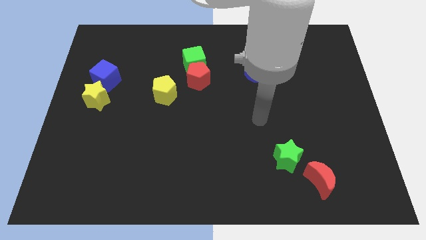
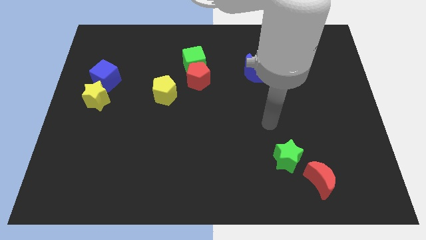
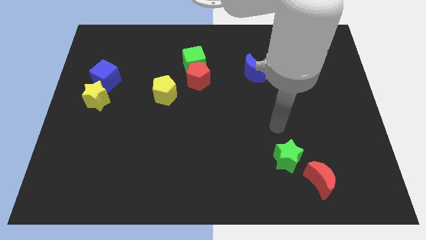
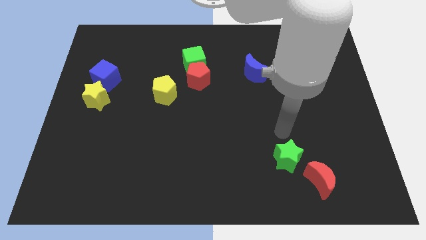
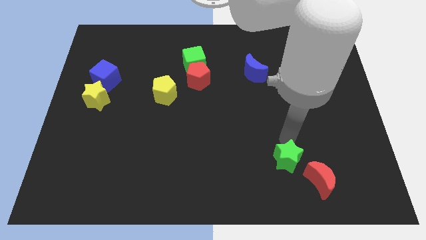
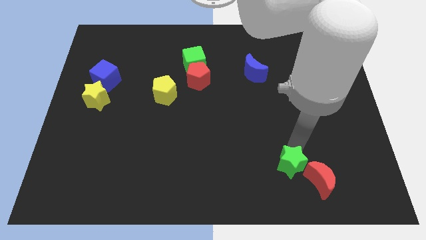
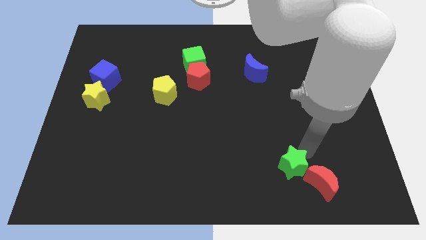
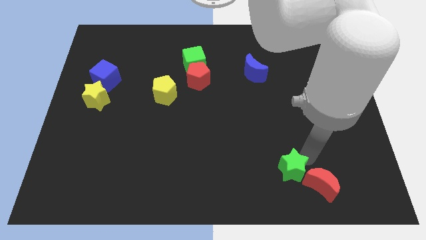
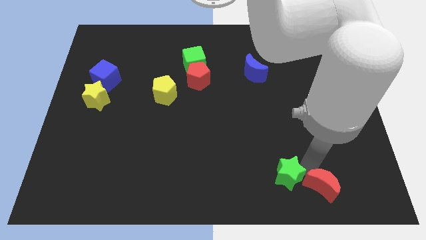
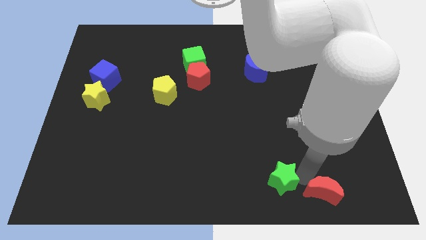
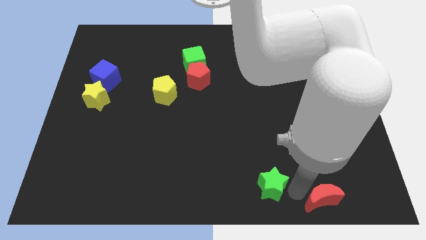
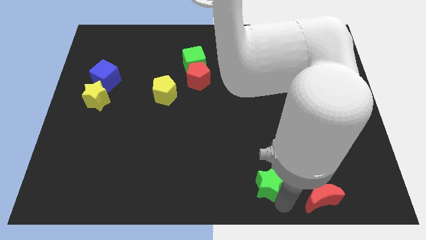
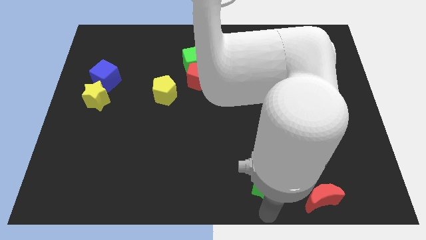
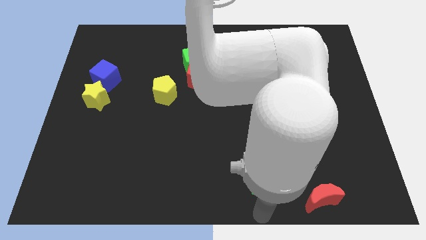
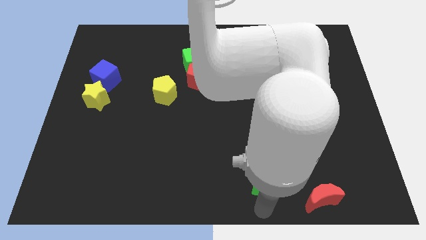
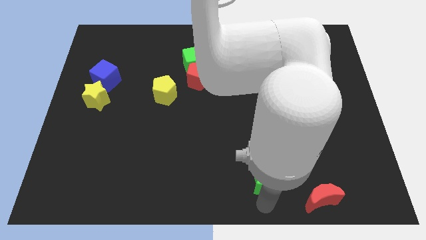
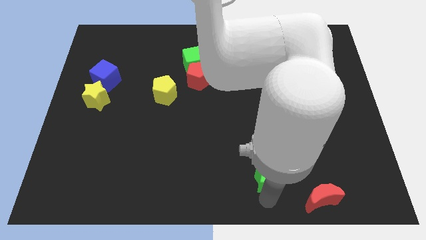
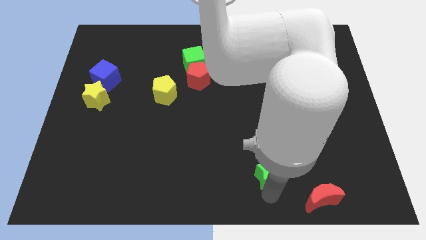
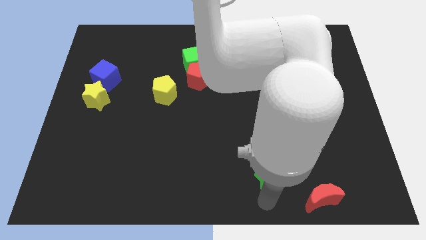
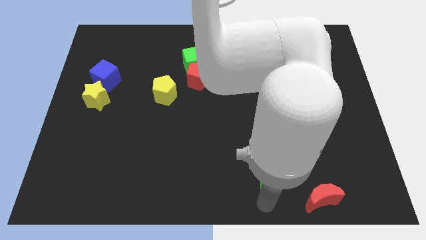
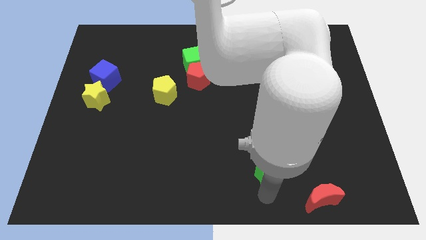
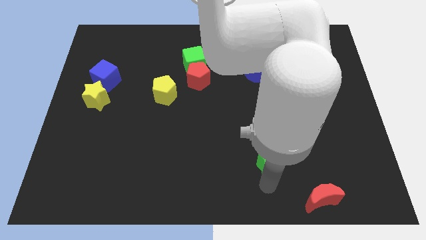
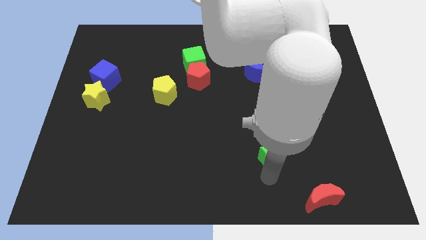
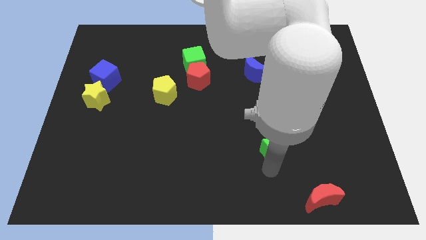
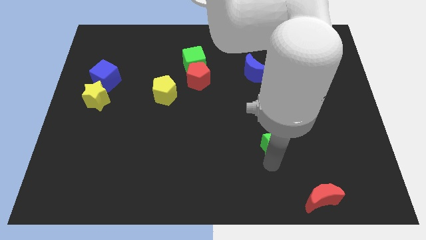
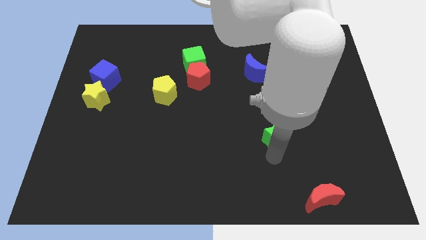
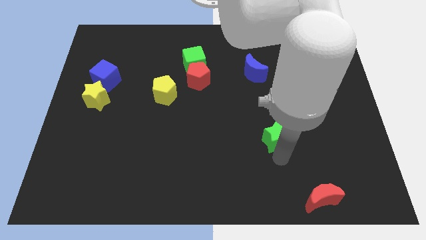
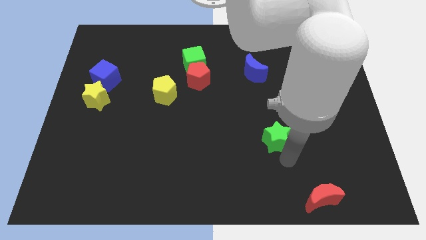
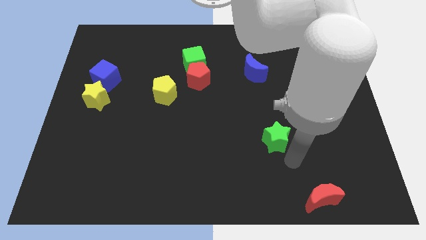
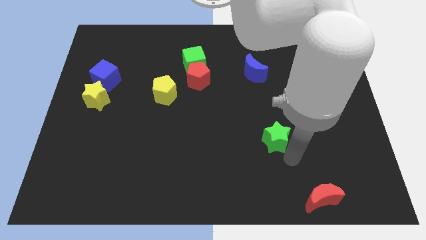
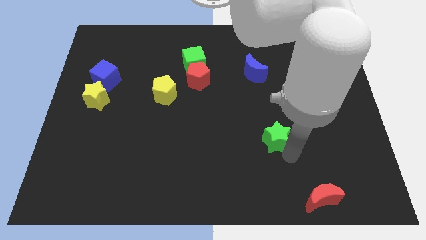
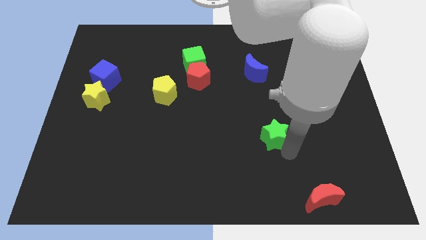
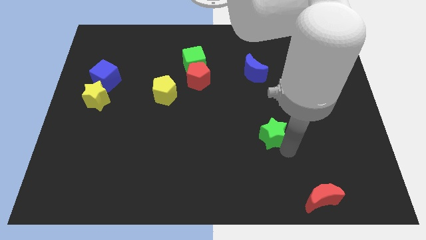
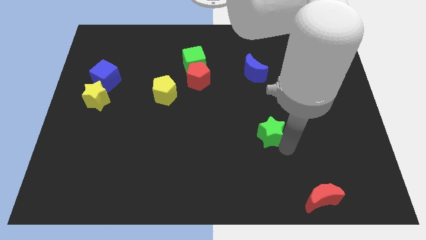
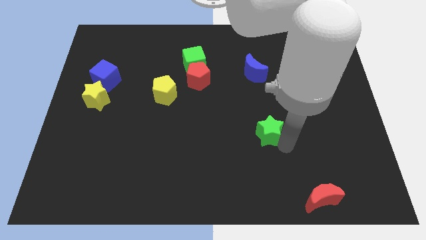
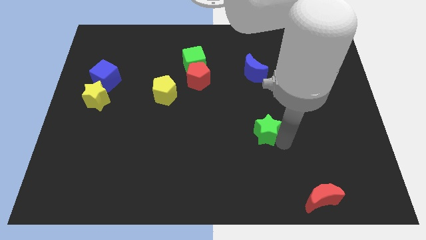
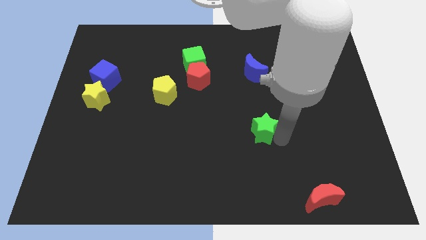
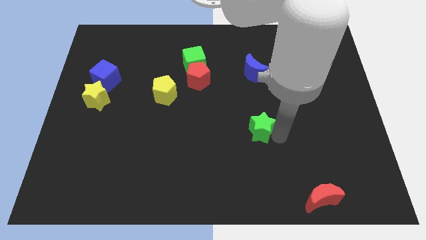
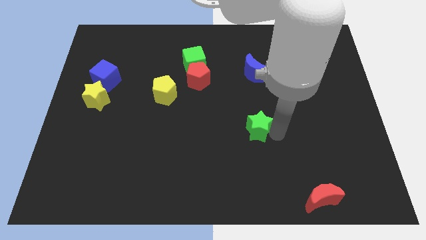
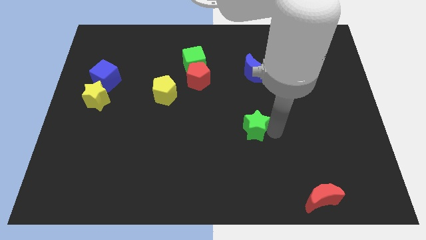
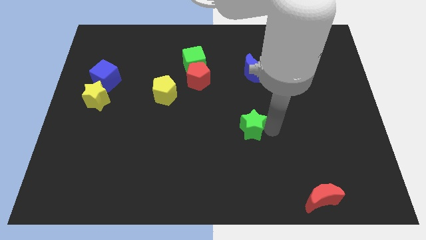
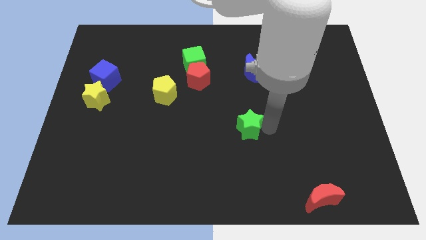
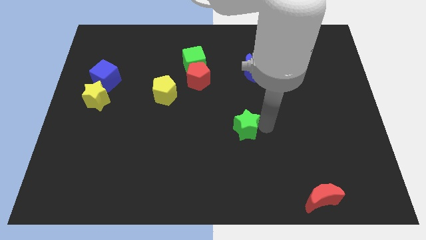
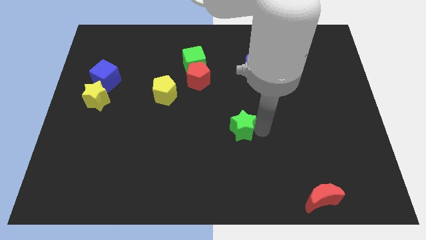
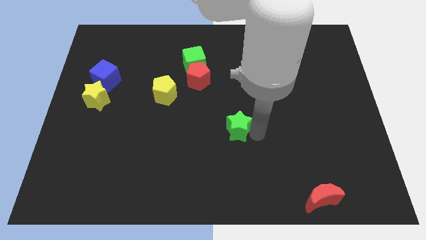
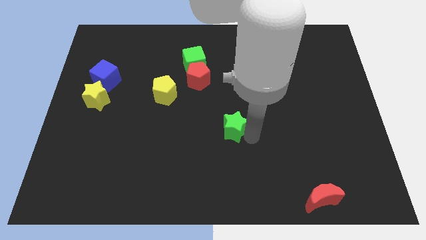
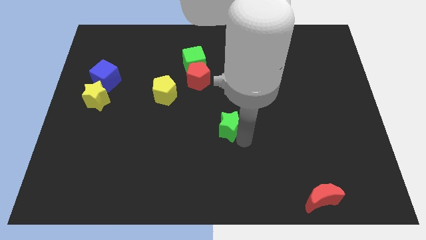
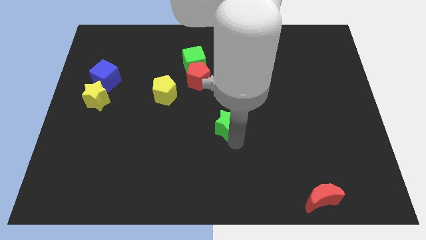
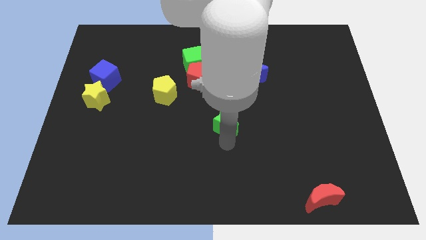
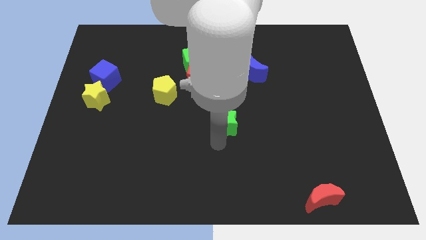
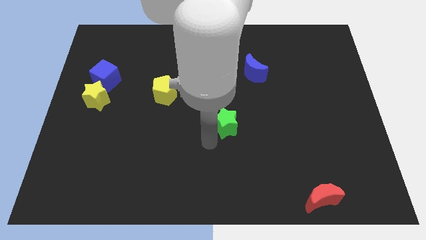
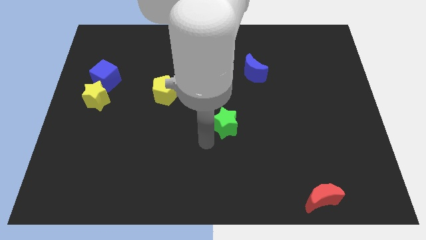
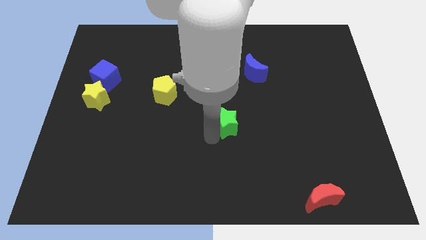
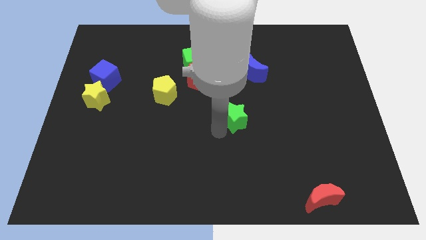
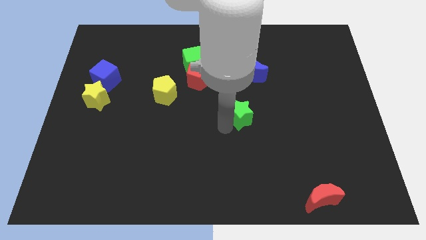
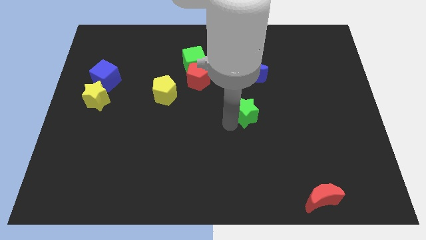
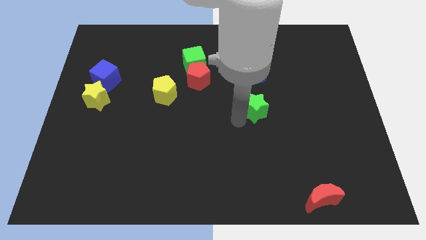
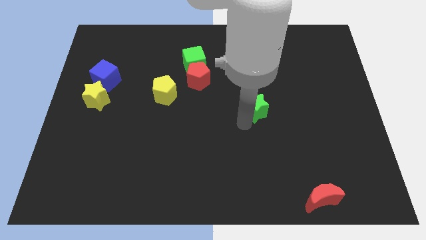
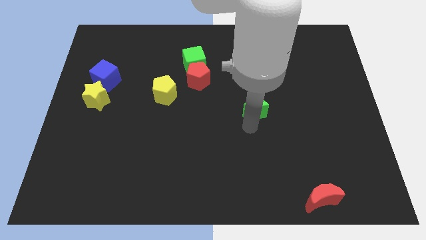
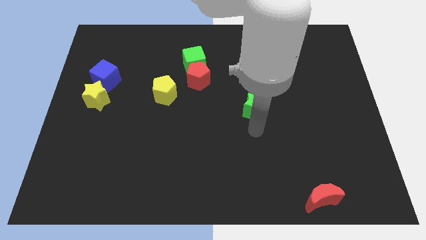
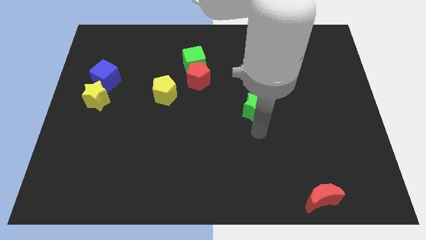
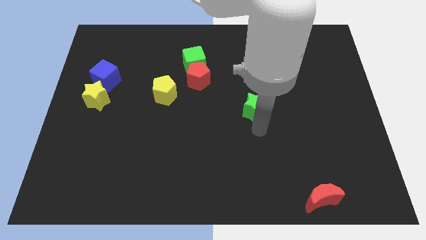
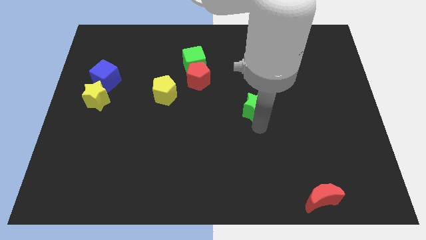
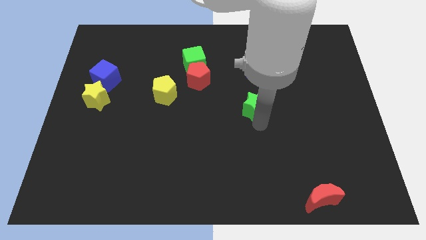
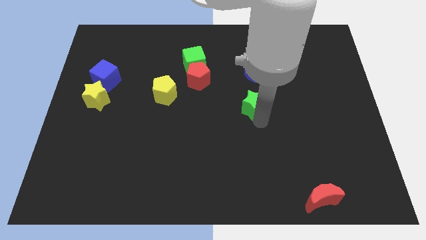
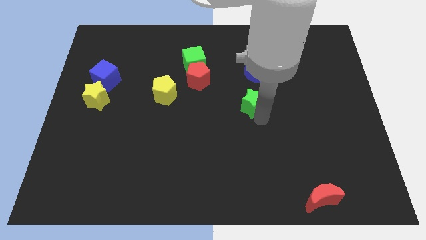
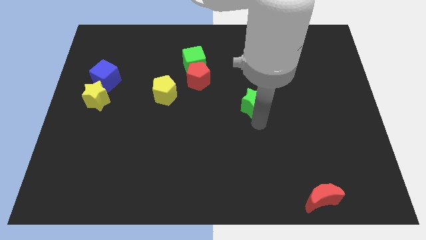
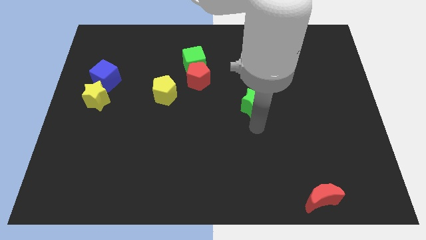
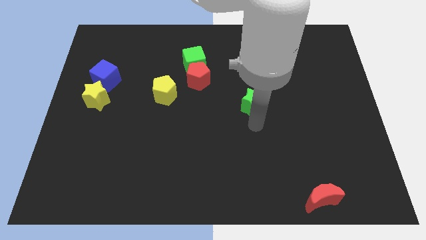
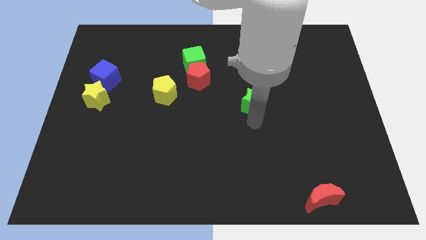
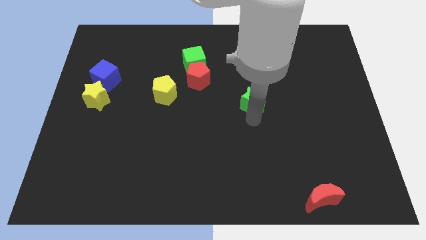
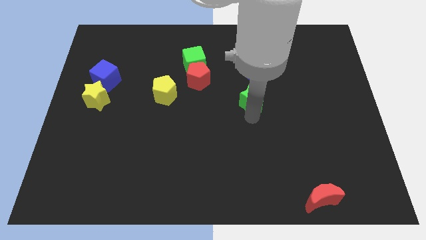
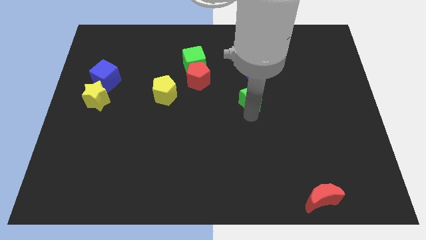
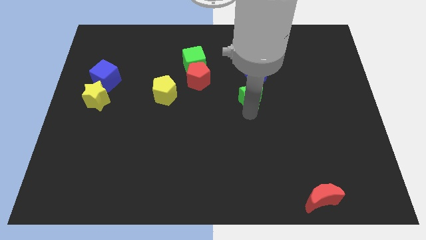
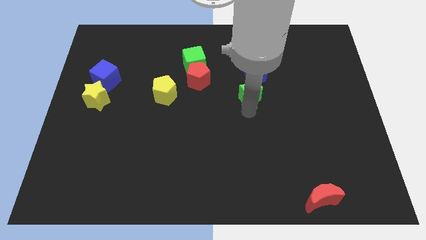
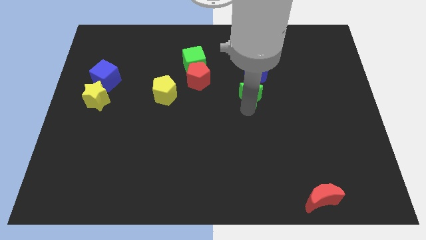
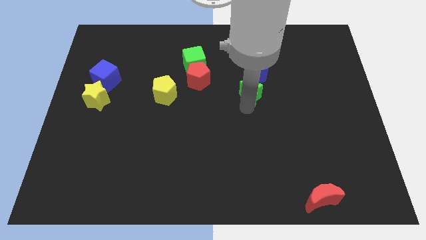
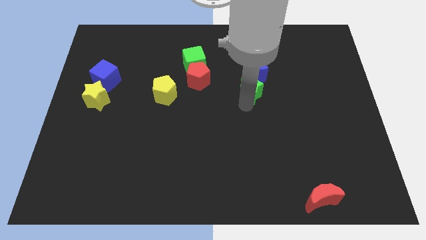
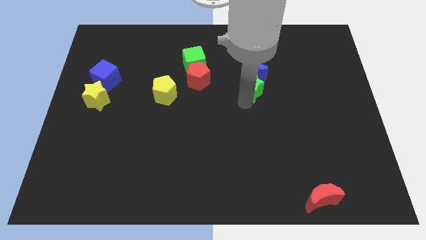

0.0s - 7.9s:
push the green star close to the blue moon
